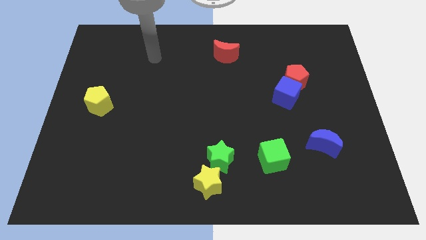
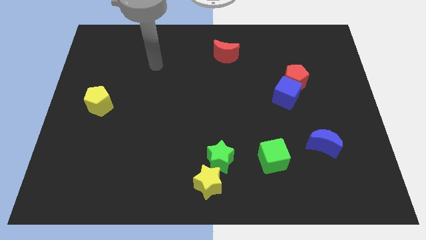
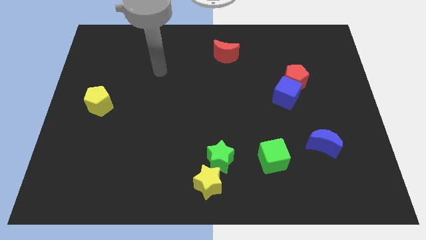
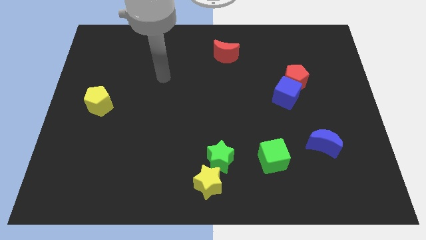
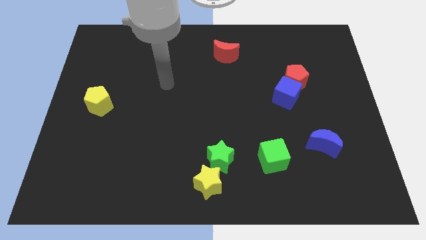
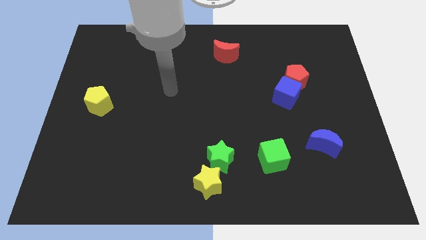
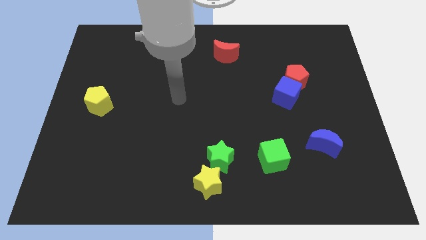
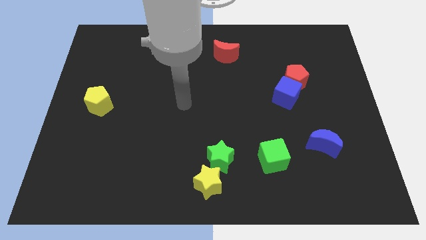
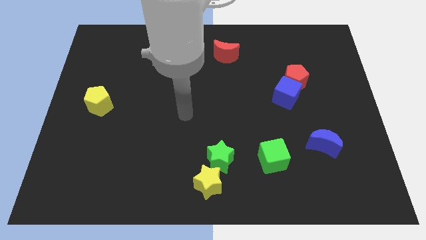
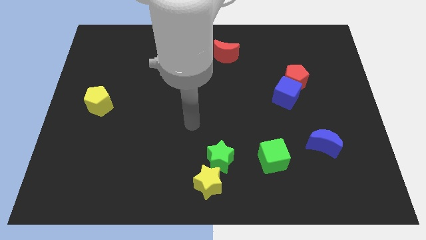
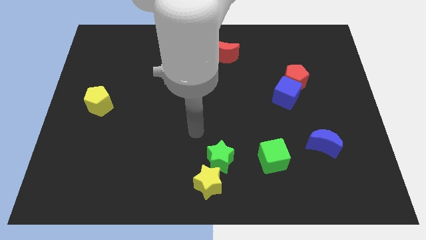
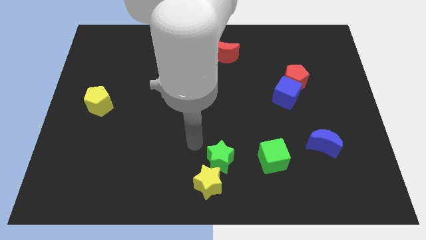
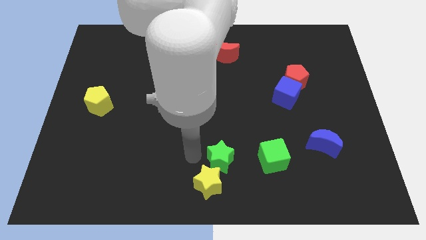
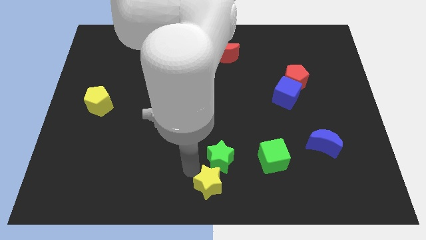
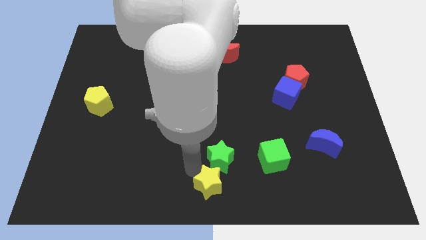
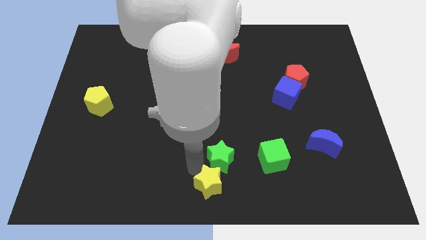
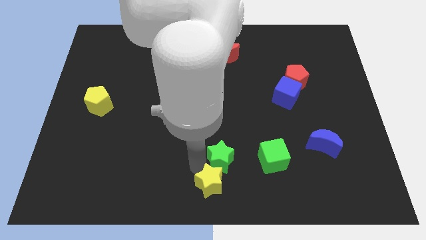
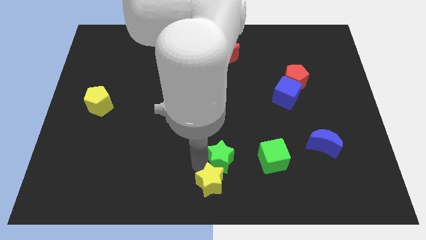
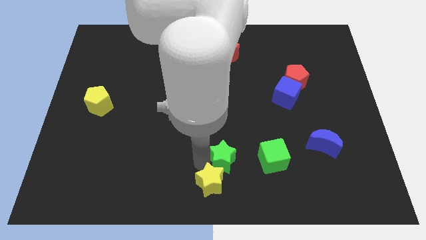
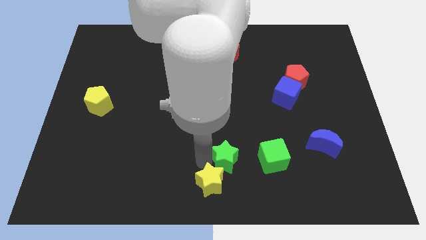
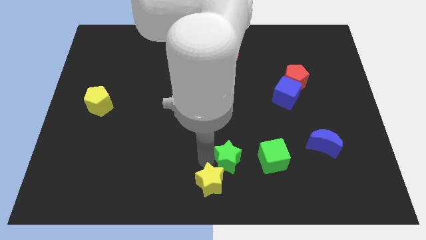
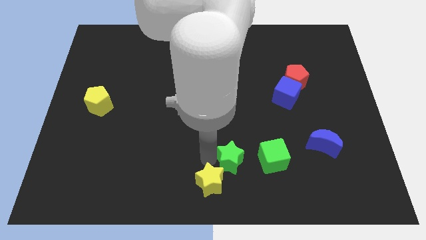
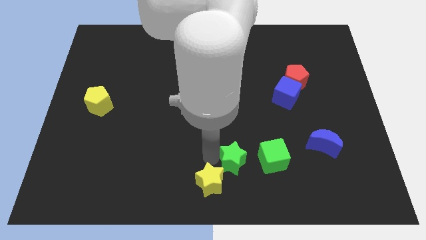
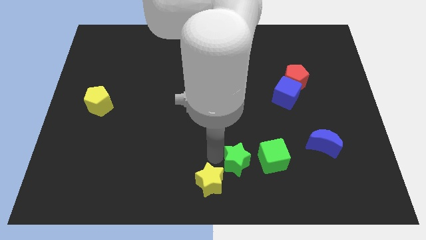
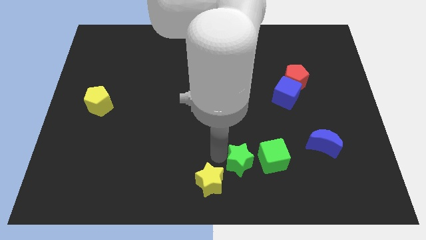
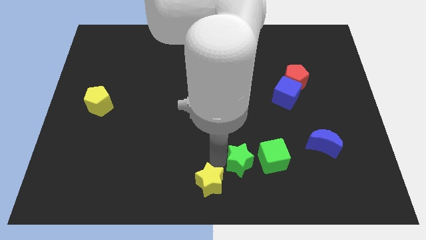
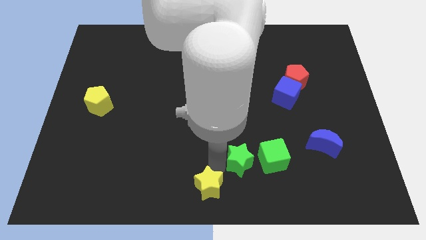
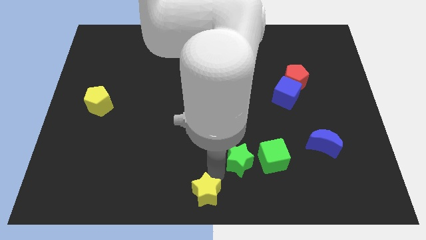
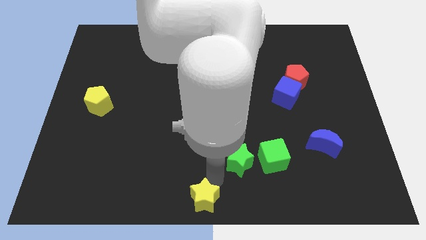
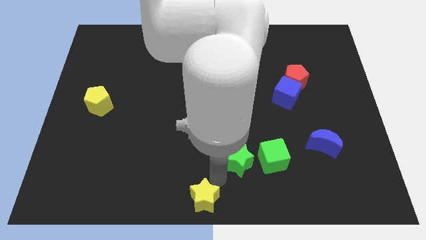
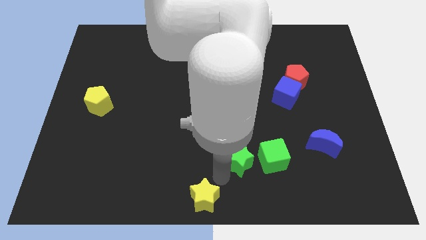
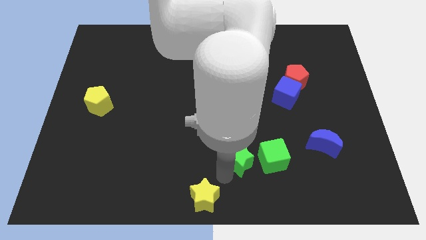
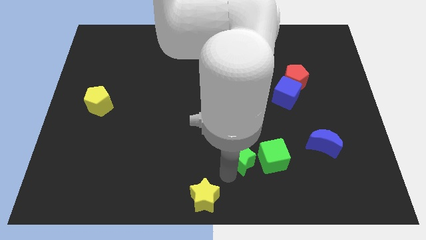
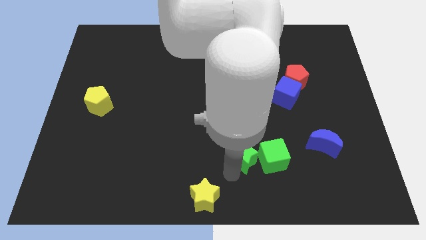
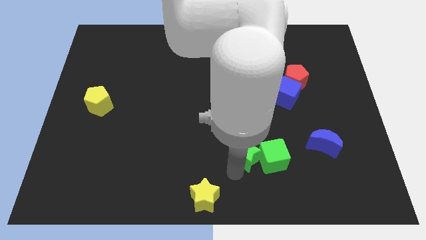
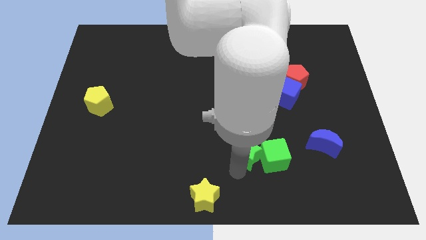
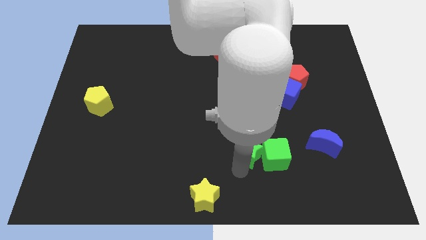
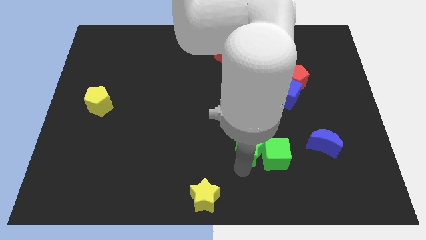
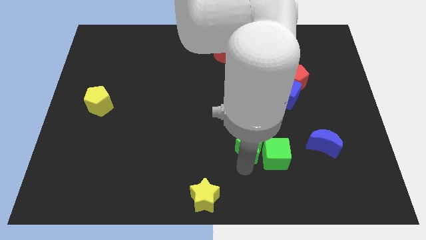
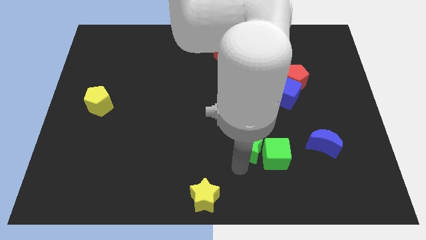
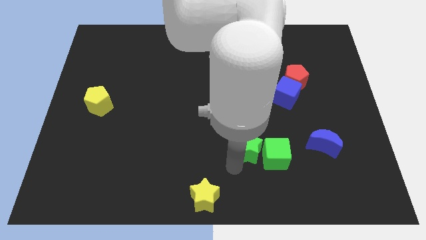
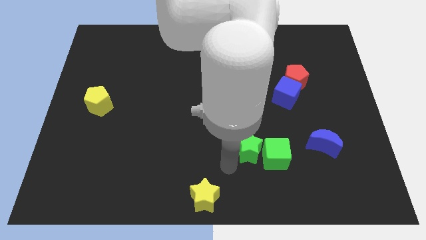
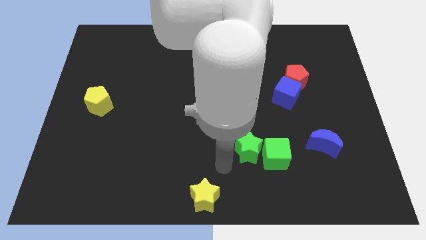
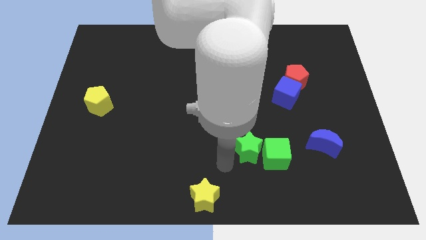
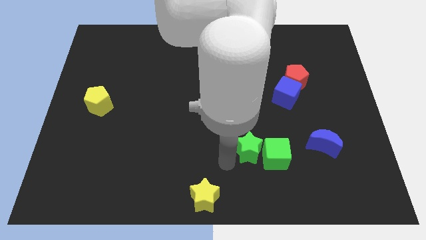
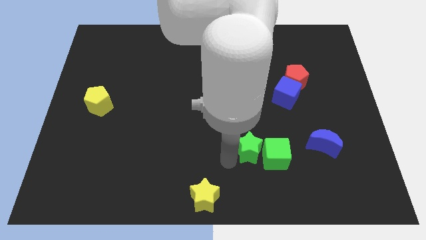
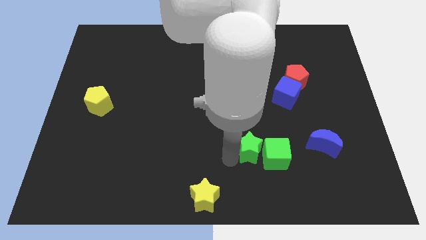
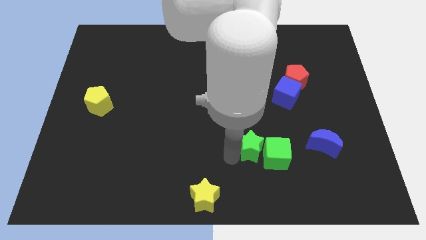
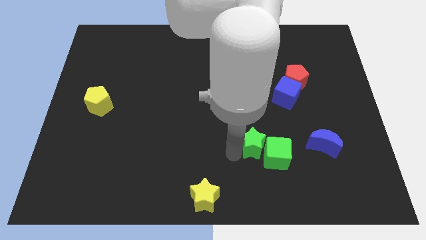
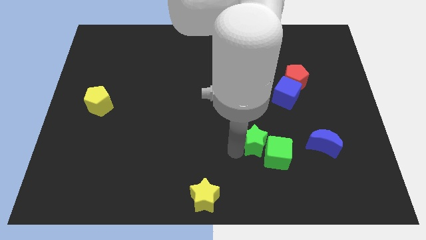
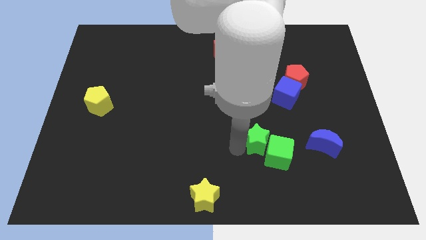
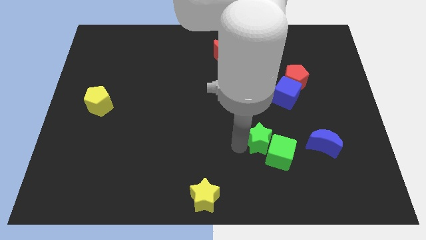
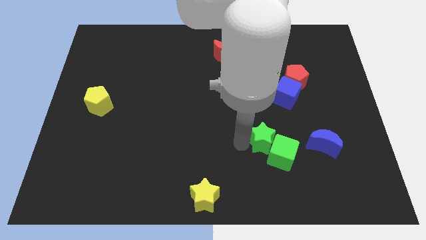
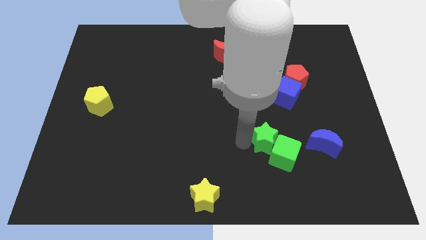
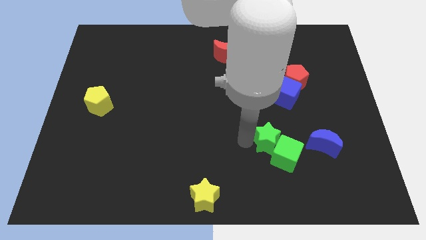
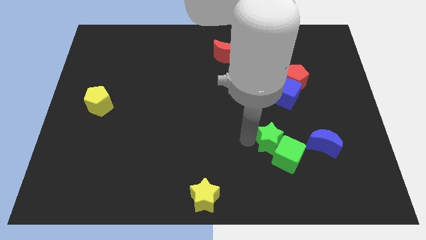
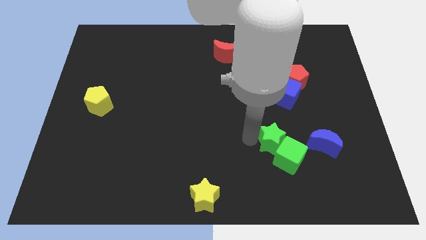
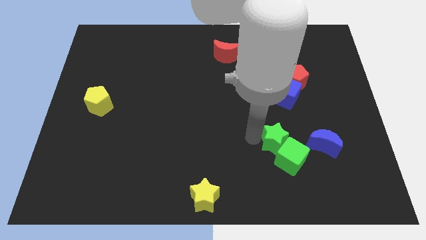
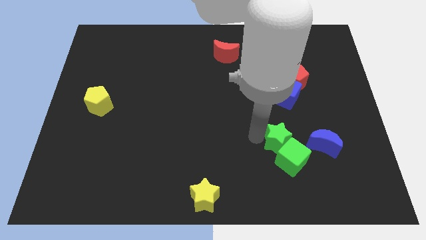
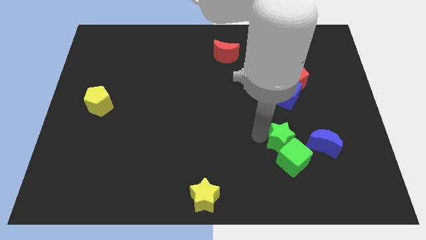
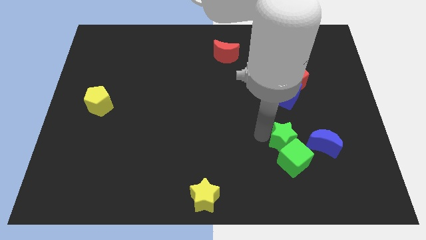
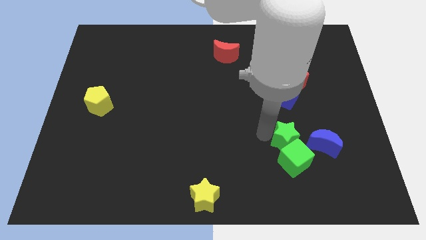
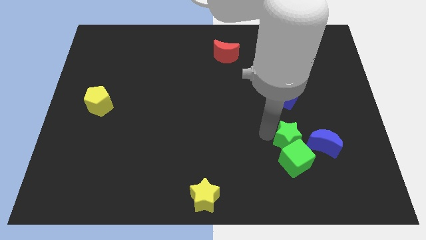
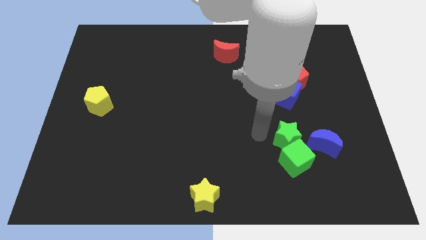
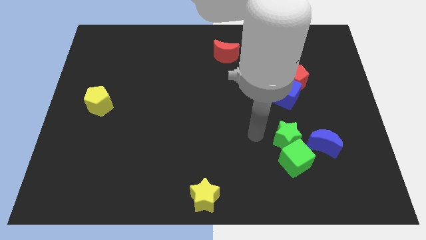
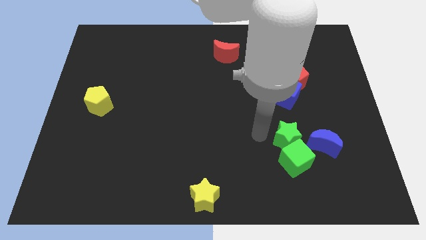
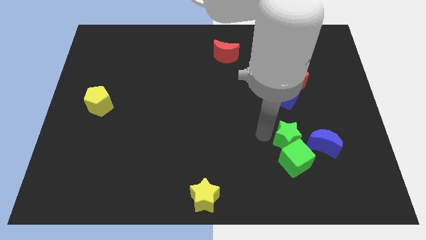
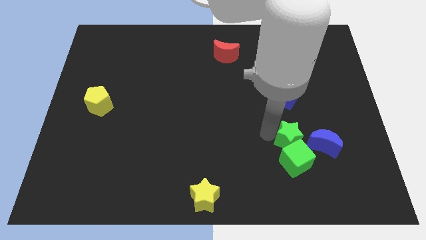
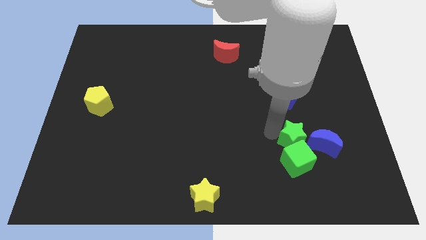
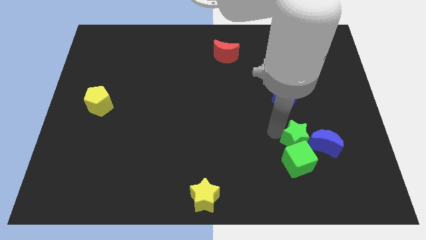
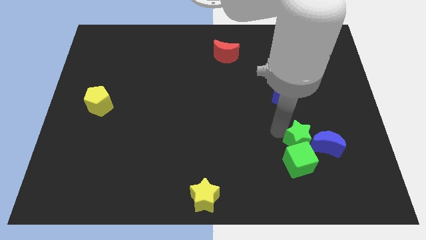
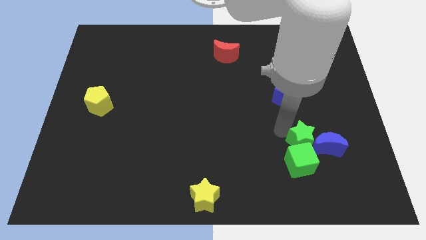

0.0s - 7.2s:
put the green star close to the blue moon
